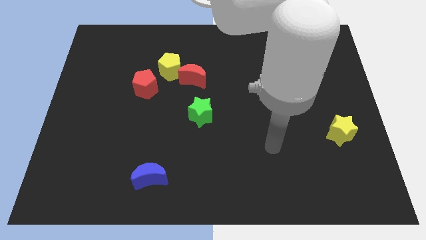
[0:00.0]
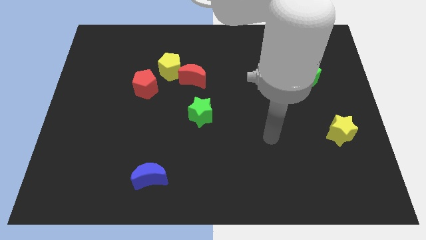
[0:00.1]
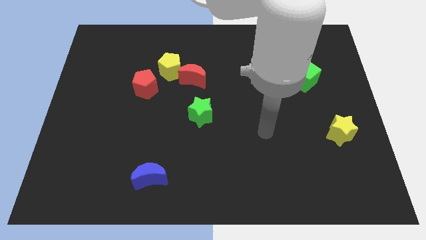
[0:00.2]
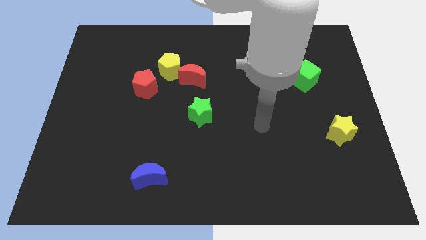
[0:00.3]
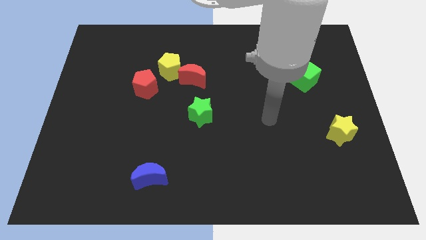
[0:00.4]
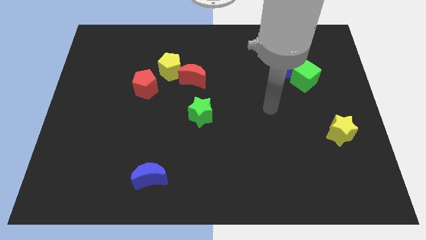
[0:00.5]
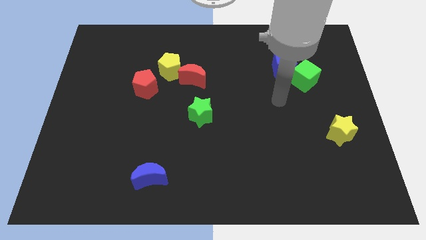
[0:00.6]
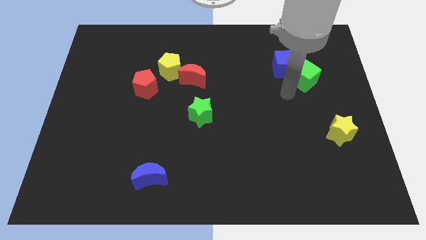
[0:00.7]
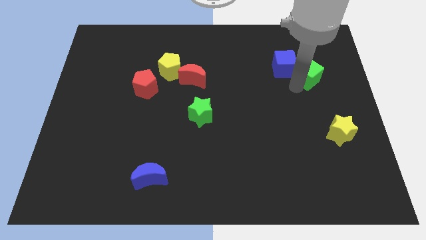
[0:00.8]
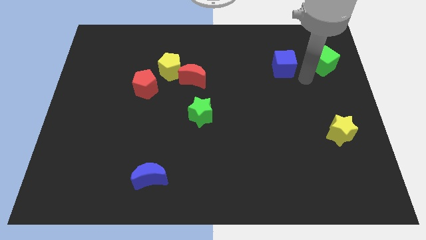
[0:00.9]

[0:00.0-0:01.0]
separate the blue cube from the green cube

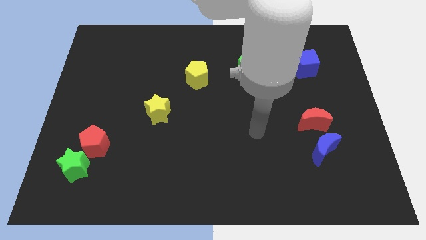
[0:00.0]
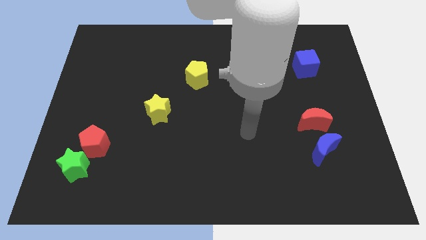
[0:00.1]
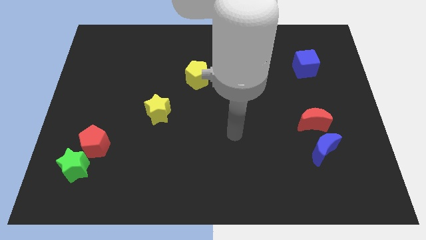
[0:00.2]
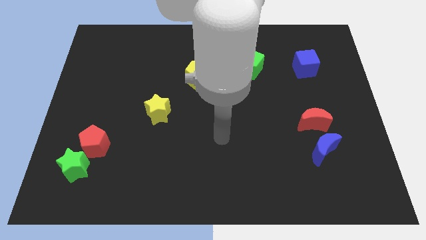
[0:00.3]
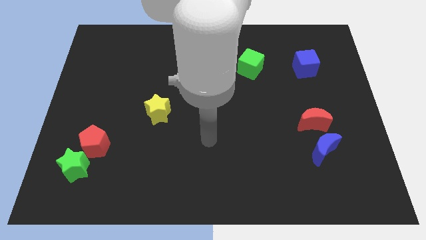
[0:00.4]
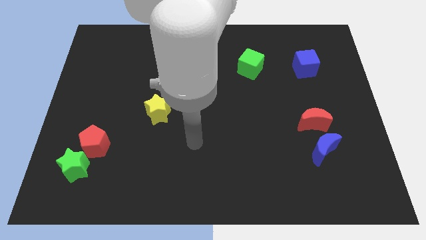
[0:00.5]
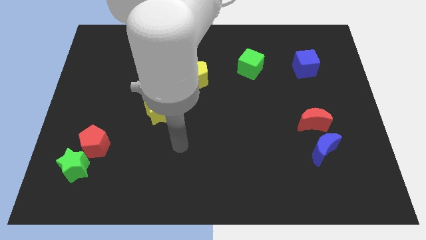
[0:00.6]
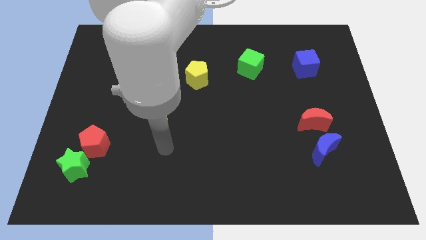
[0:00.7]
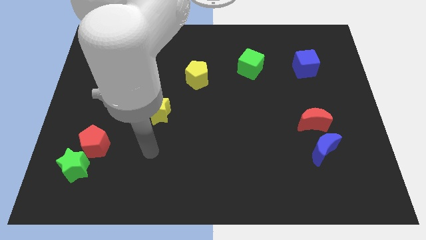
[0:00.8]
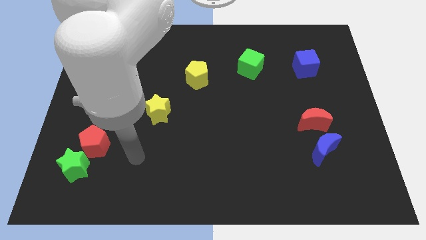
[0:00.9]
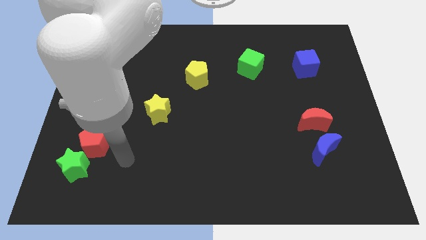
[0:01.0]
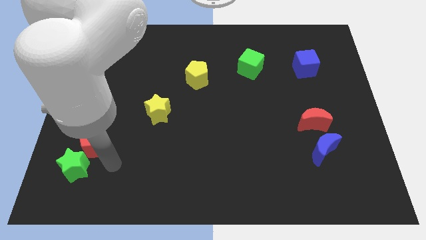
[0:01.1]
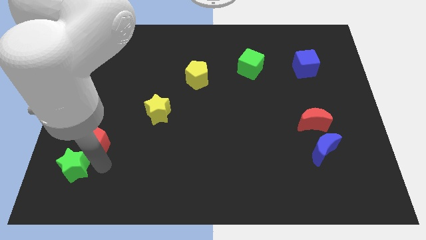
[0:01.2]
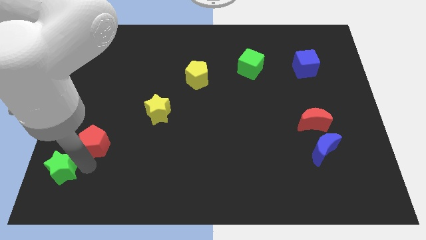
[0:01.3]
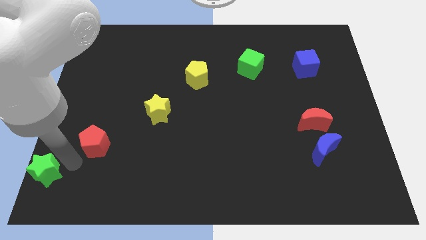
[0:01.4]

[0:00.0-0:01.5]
separate the red pentagon from the green star

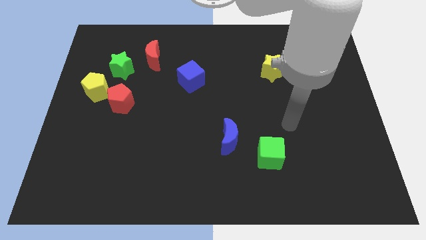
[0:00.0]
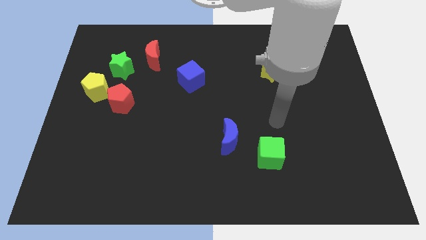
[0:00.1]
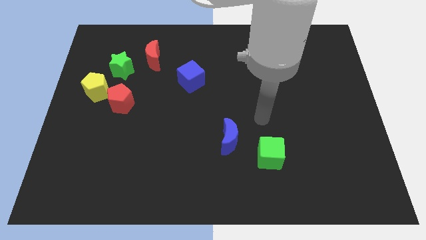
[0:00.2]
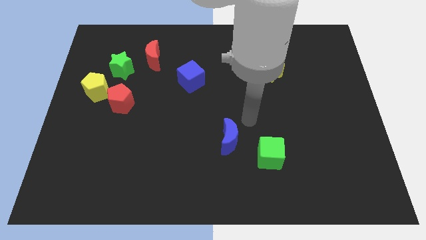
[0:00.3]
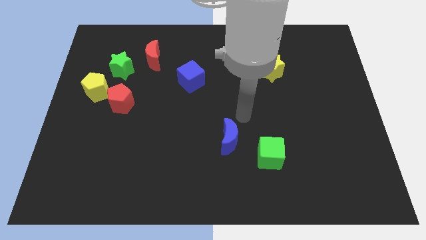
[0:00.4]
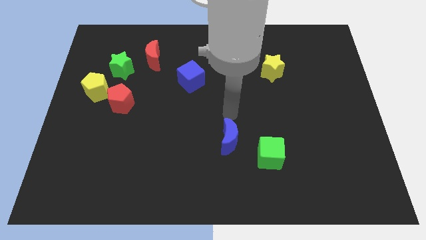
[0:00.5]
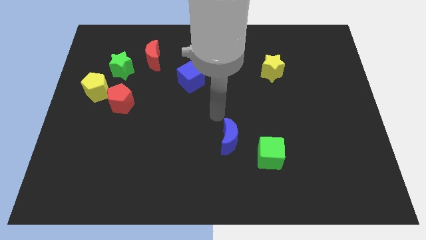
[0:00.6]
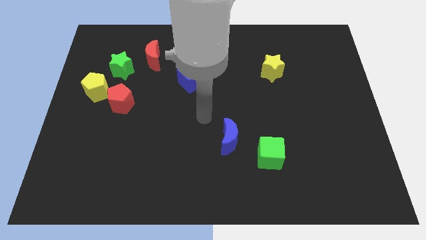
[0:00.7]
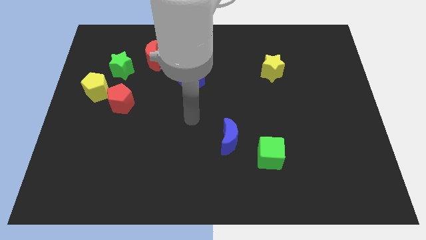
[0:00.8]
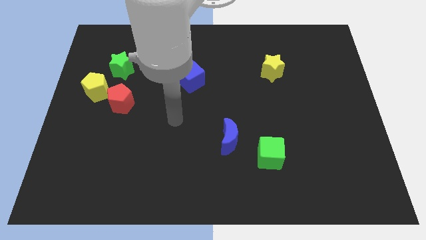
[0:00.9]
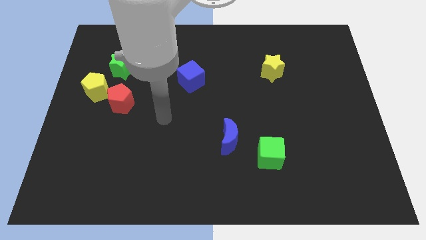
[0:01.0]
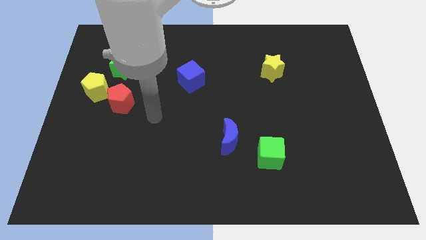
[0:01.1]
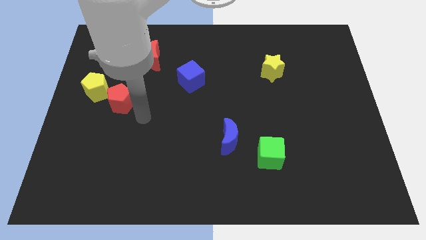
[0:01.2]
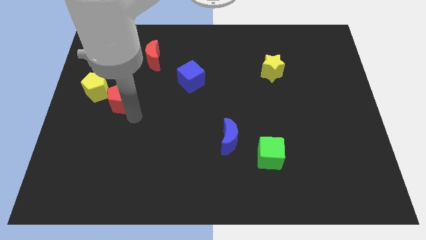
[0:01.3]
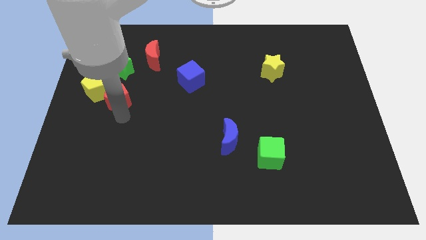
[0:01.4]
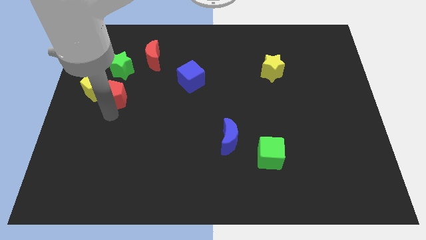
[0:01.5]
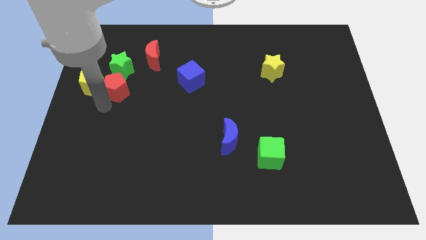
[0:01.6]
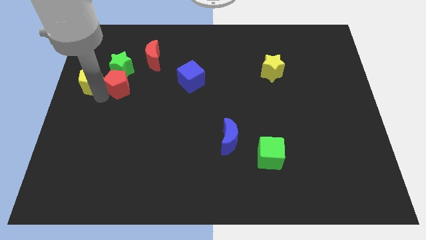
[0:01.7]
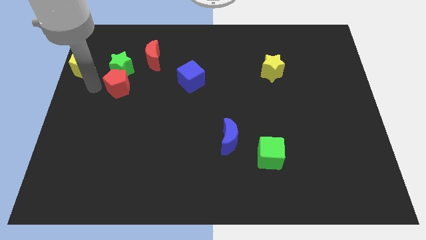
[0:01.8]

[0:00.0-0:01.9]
pull the red pentagon apart from the yellow pentagon

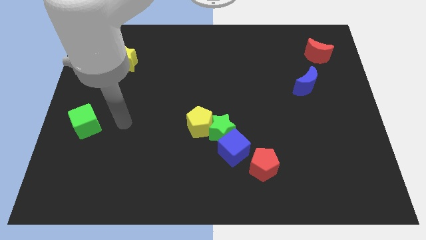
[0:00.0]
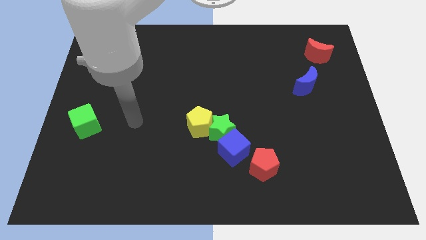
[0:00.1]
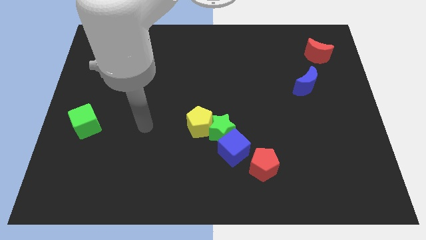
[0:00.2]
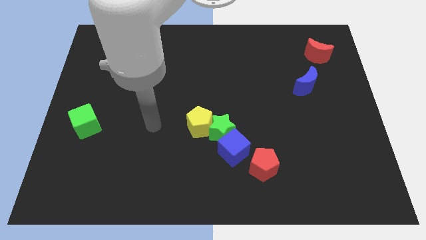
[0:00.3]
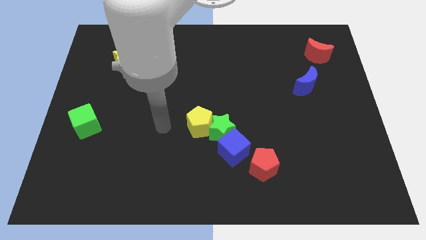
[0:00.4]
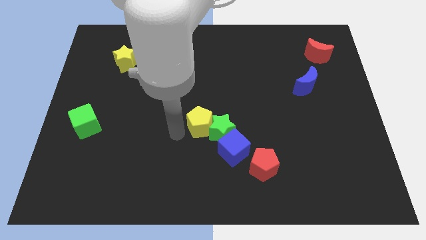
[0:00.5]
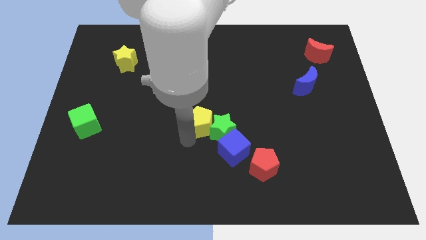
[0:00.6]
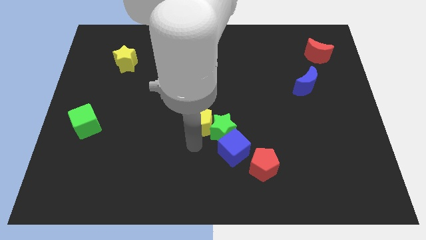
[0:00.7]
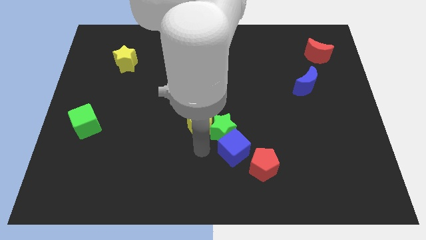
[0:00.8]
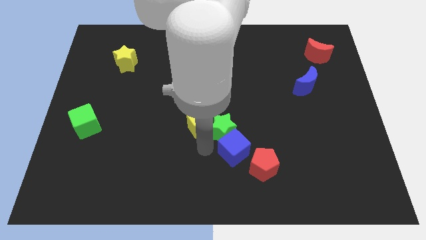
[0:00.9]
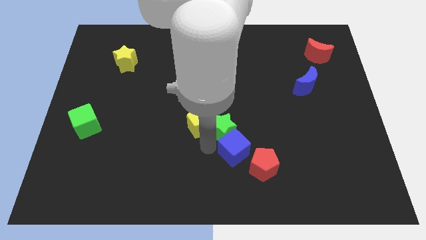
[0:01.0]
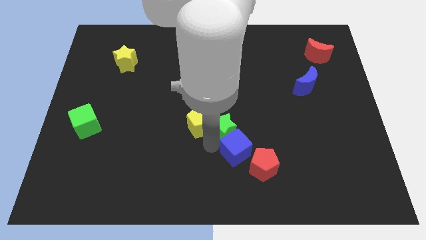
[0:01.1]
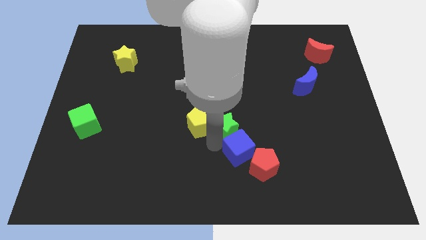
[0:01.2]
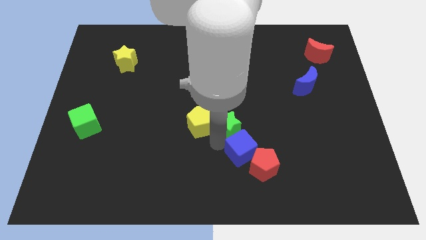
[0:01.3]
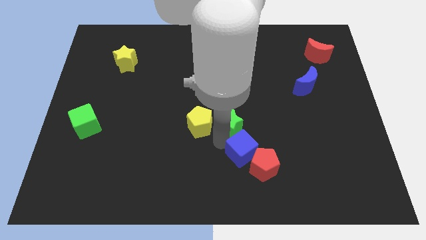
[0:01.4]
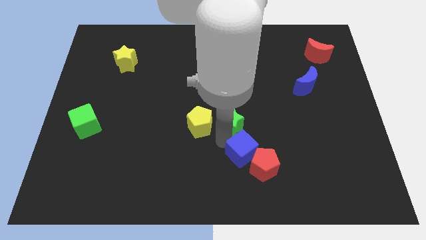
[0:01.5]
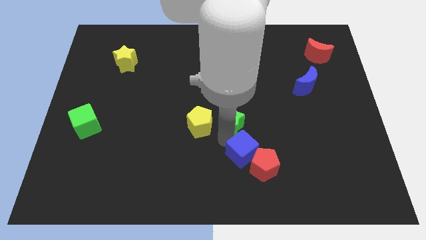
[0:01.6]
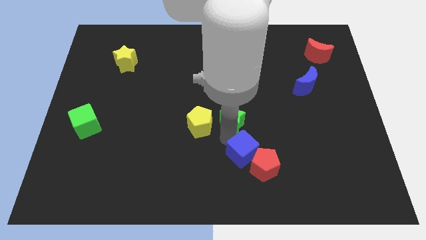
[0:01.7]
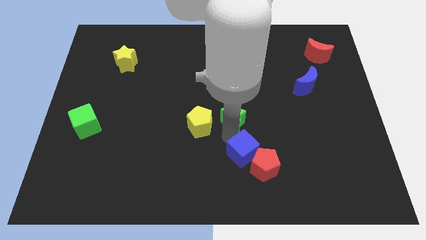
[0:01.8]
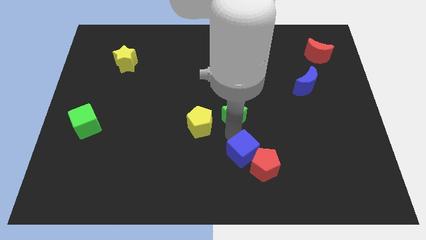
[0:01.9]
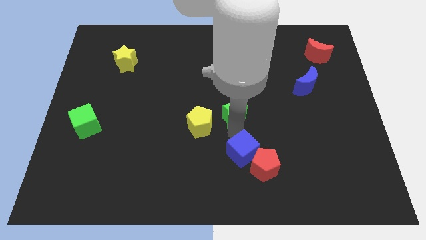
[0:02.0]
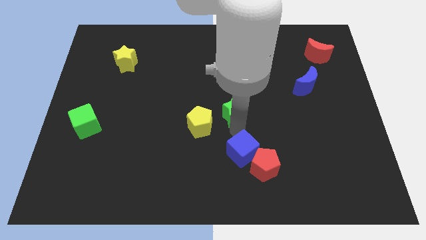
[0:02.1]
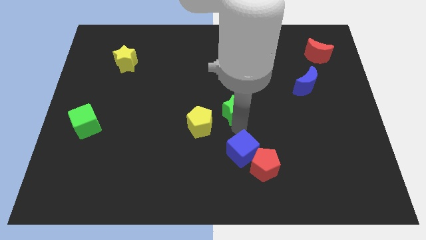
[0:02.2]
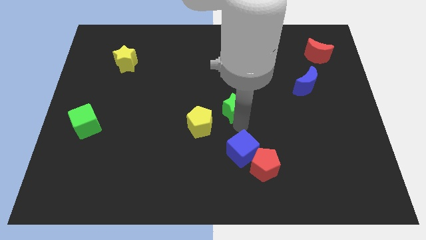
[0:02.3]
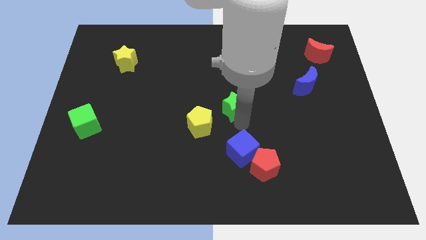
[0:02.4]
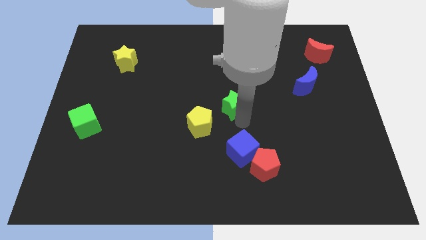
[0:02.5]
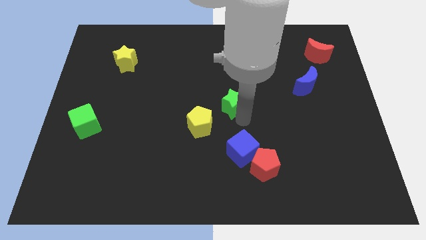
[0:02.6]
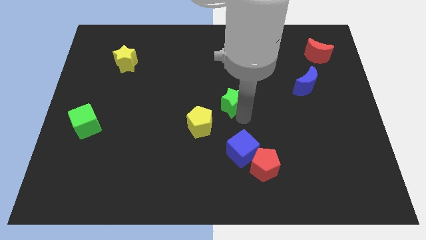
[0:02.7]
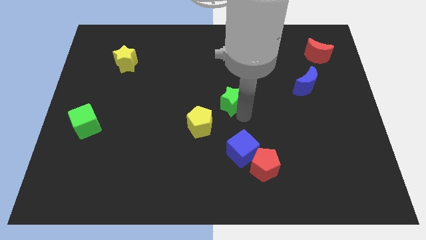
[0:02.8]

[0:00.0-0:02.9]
separate the green star from the blue cube and yellow pentagon

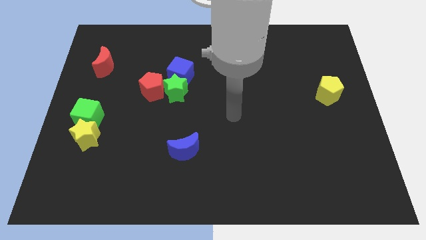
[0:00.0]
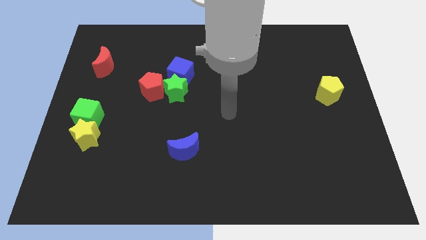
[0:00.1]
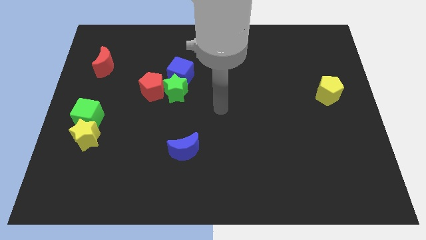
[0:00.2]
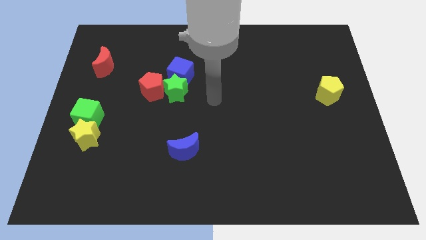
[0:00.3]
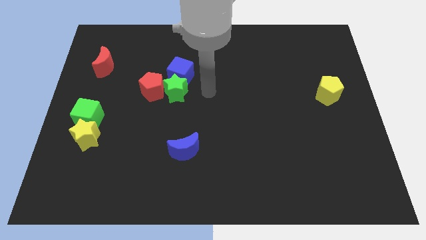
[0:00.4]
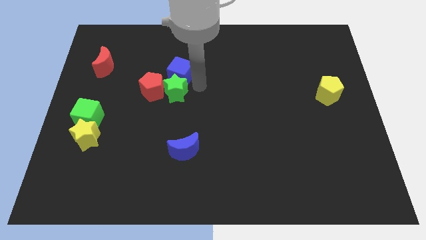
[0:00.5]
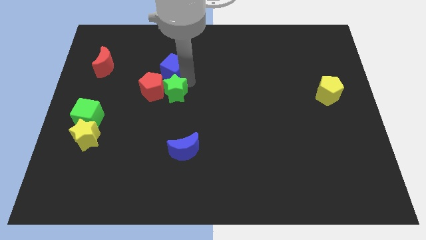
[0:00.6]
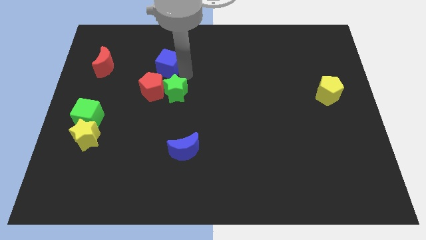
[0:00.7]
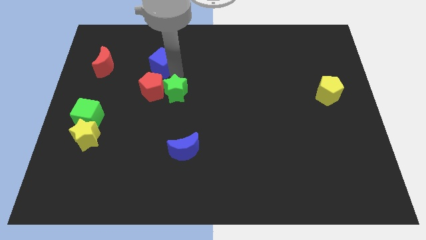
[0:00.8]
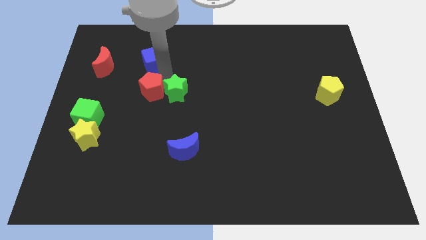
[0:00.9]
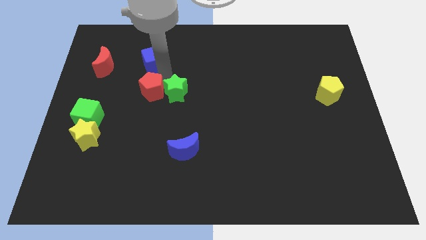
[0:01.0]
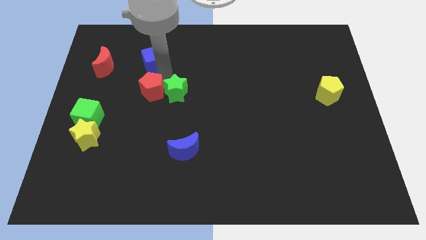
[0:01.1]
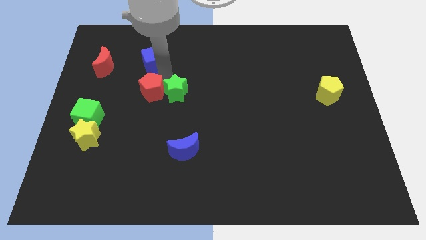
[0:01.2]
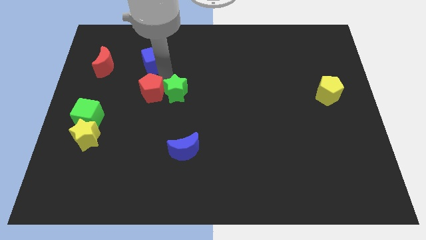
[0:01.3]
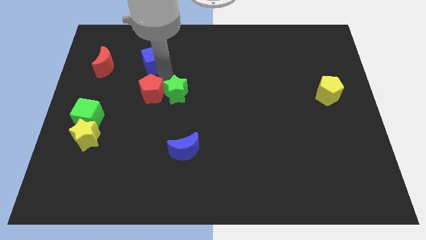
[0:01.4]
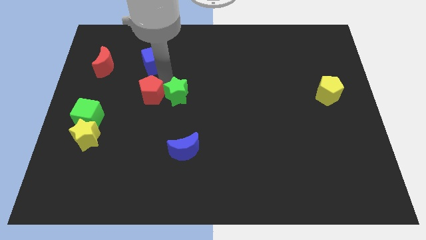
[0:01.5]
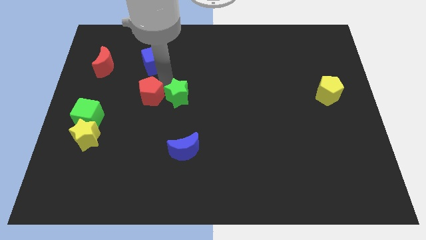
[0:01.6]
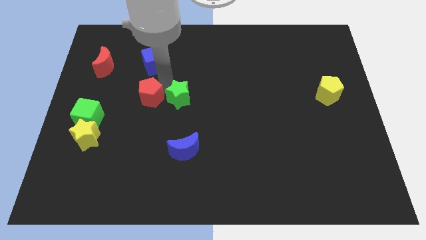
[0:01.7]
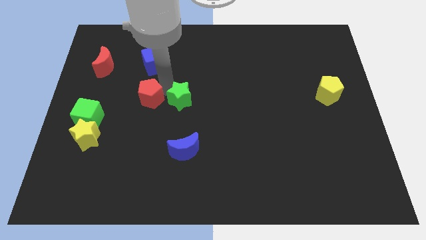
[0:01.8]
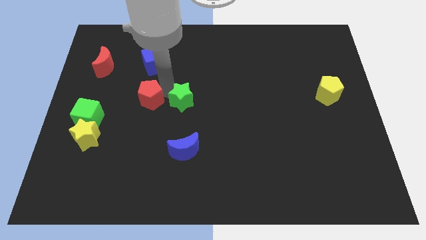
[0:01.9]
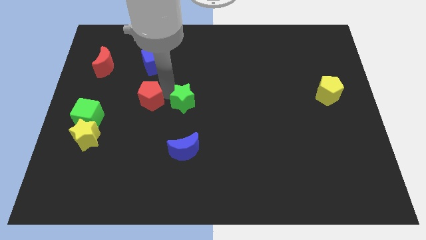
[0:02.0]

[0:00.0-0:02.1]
separate the green star from the blue cube and red pentagon
